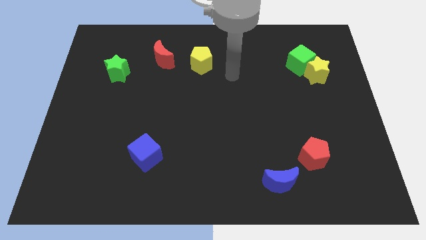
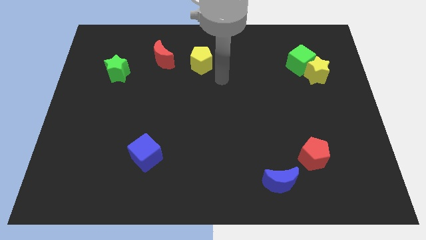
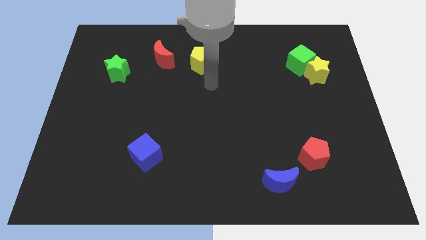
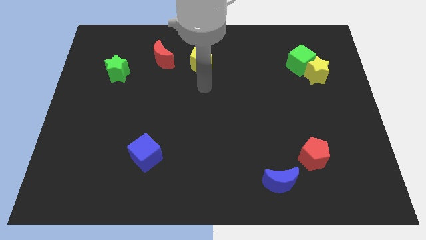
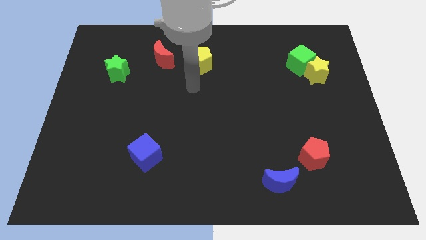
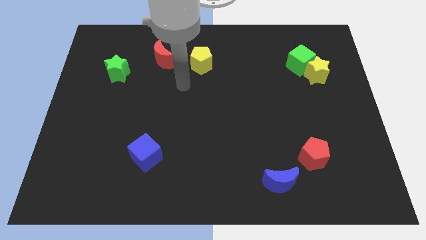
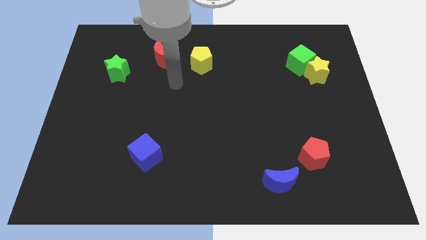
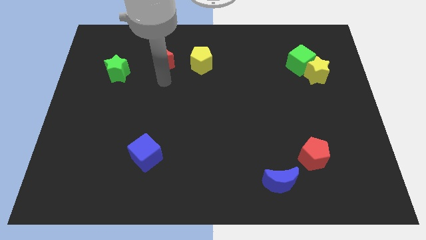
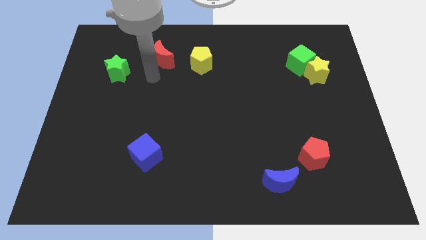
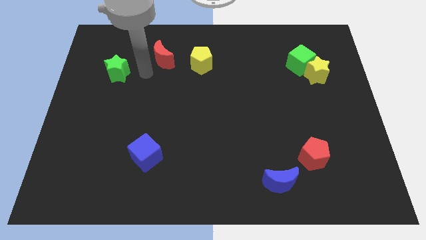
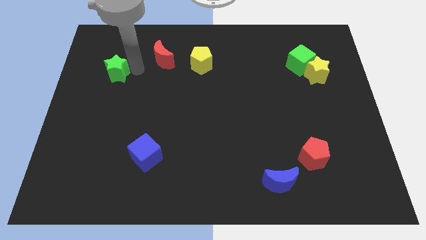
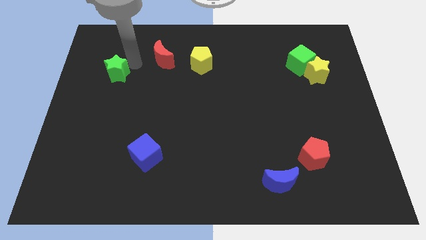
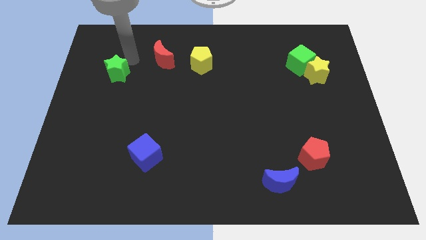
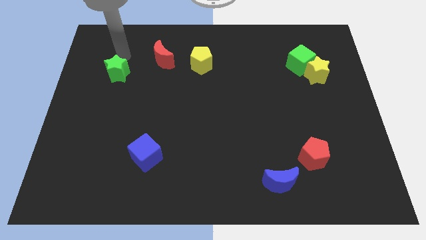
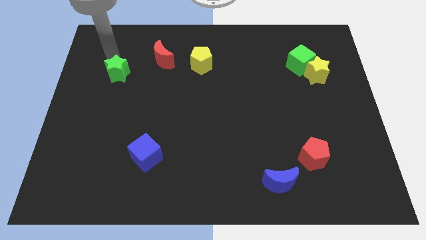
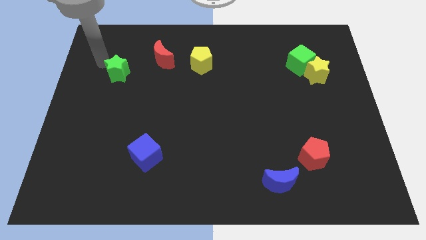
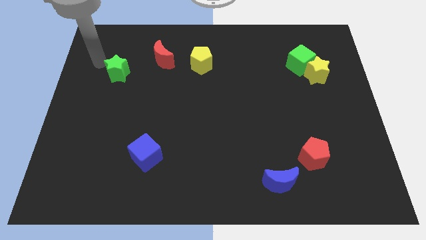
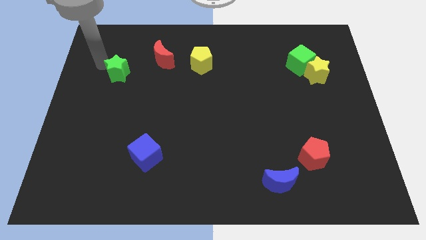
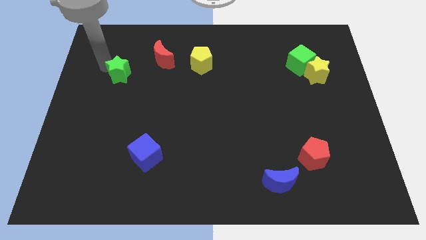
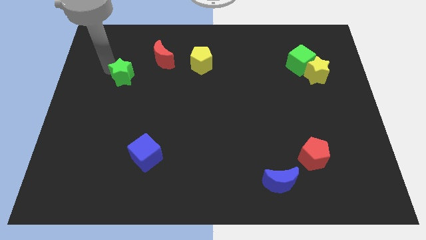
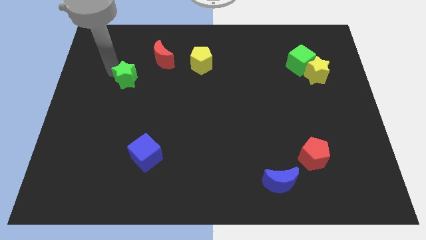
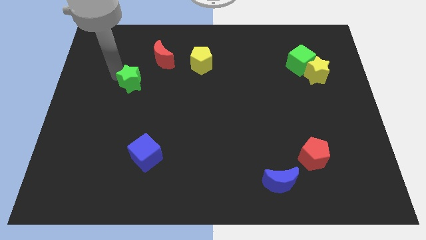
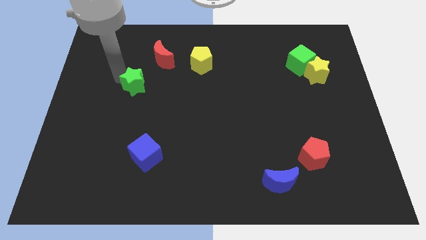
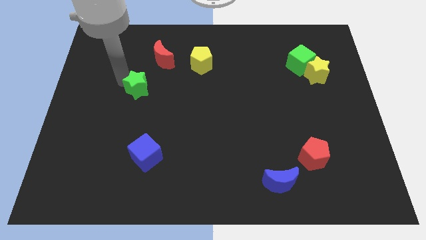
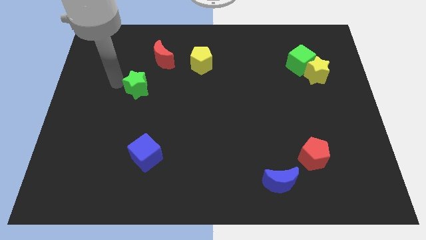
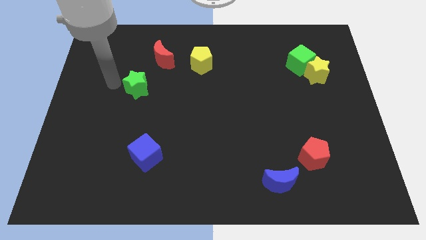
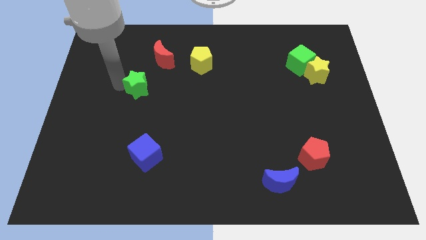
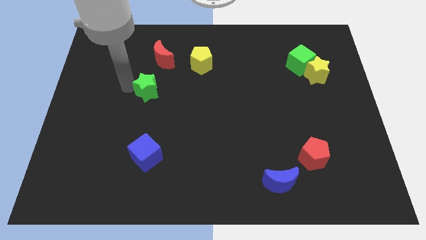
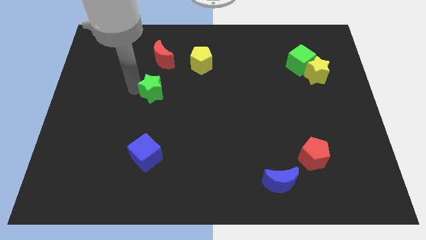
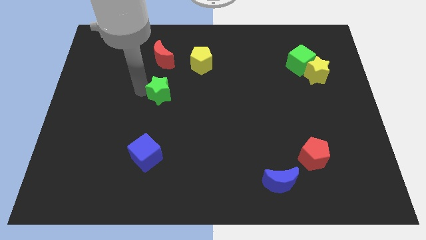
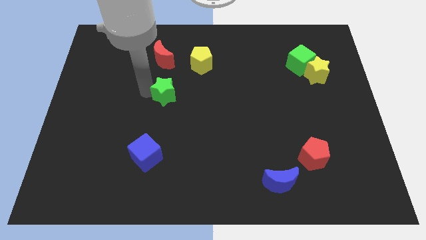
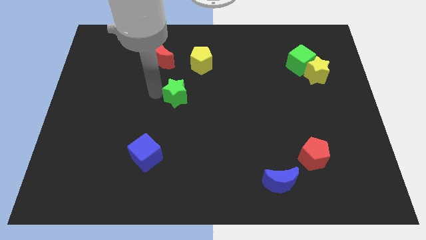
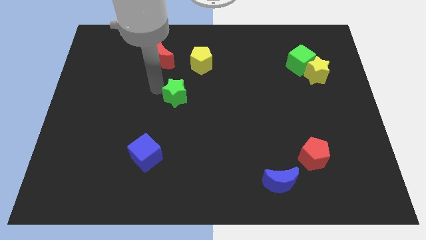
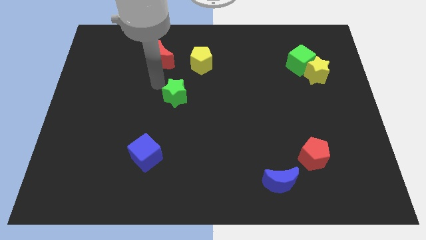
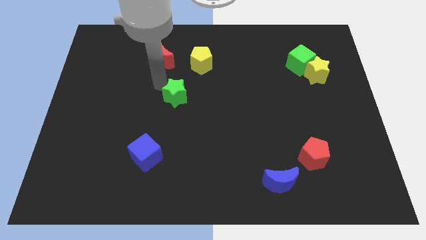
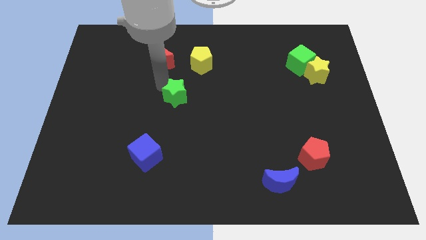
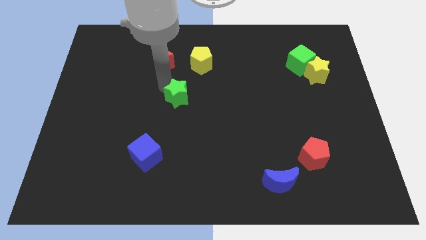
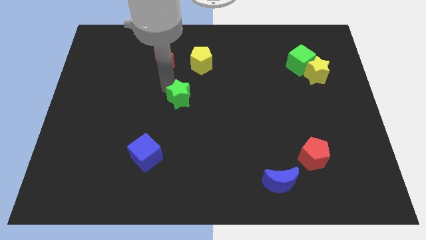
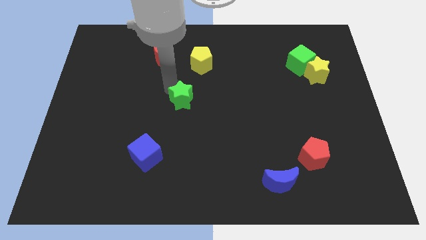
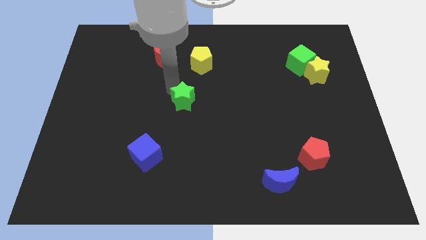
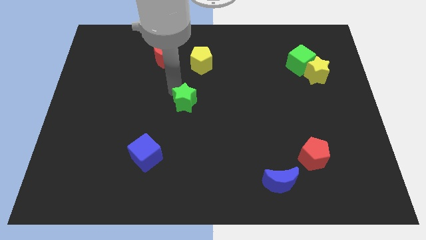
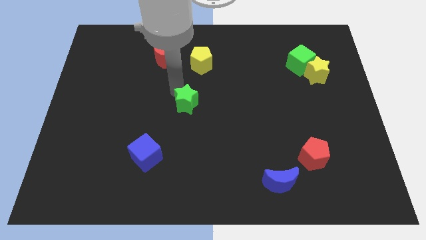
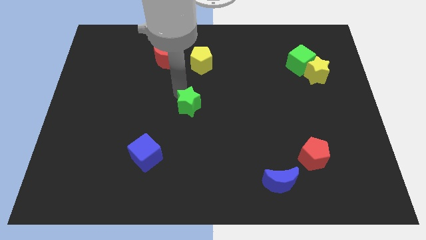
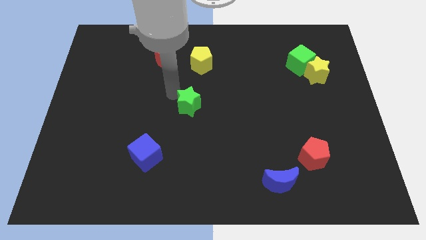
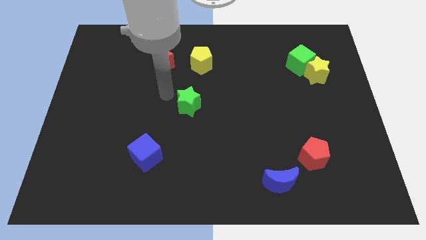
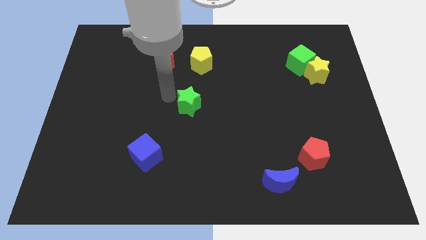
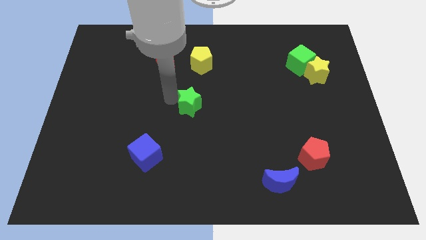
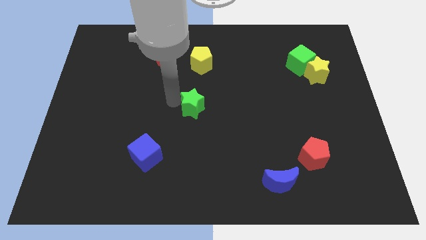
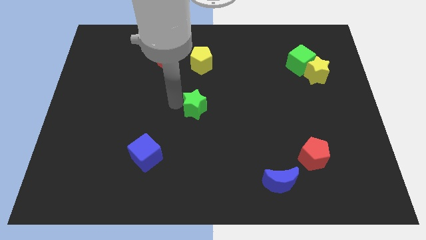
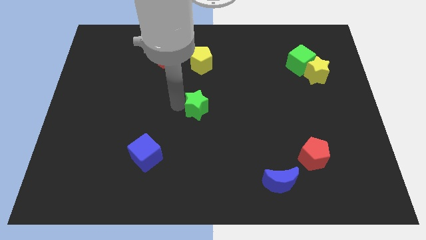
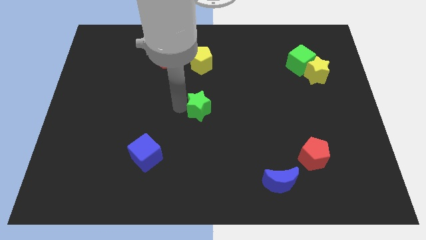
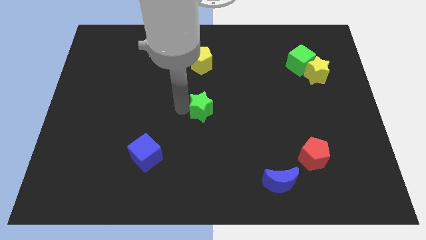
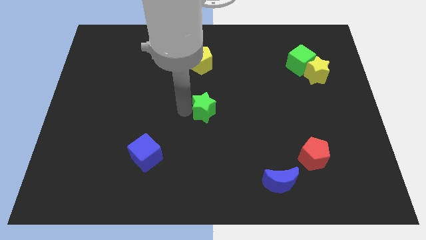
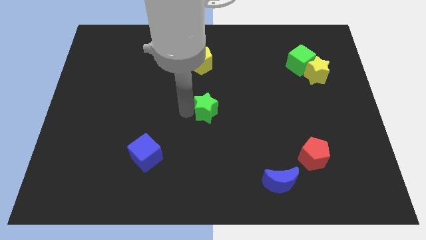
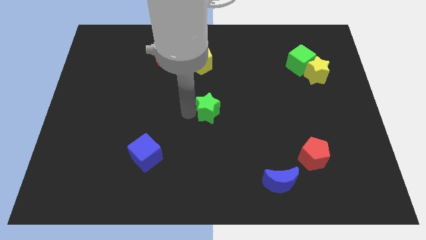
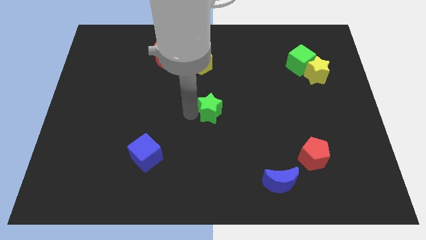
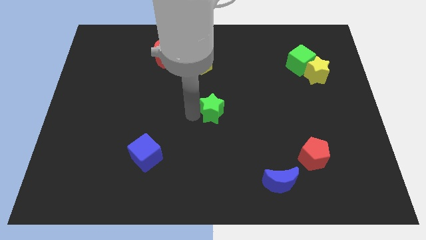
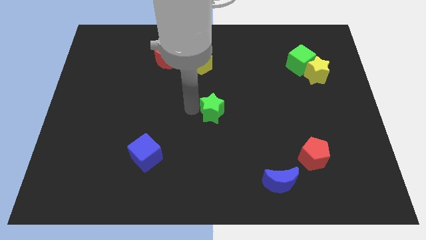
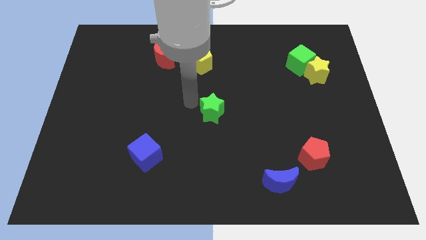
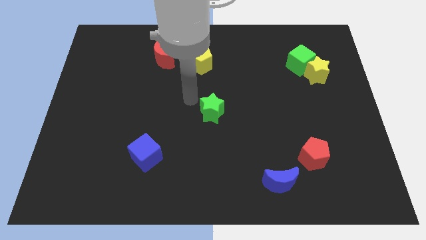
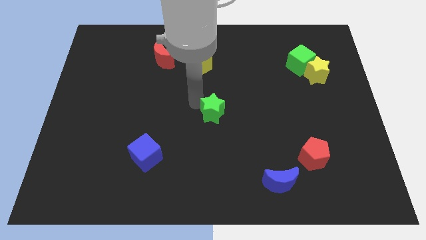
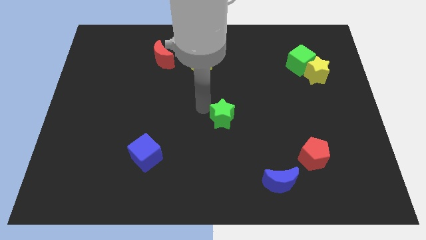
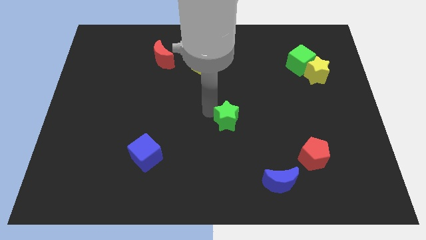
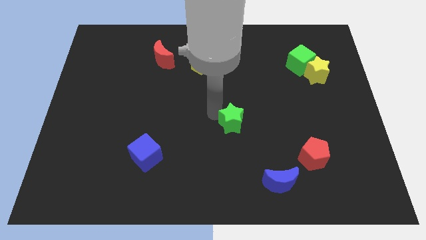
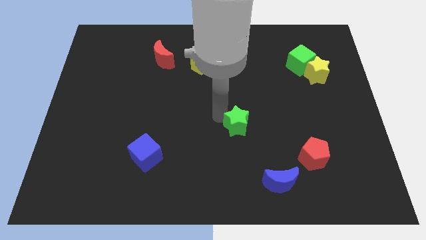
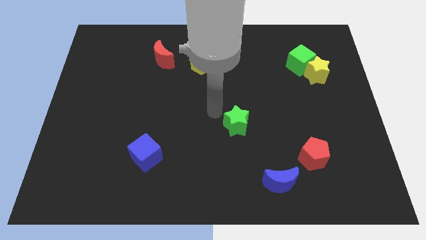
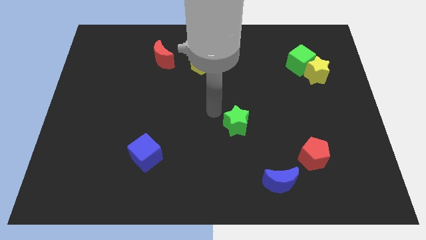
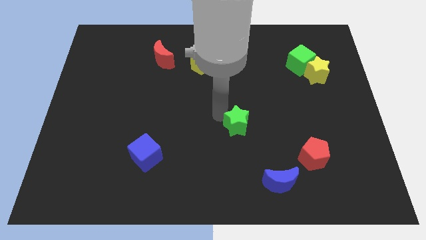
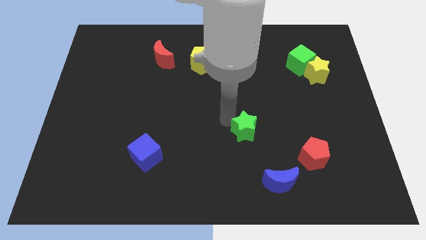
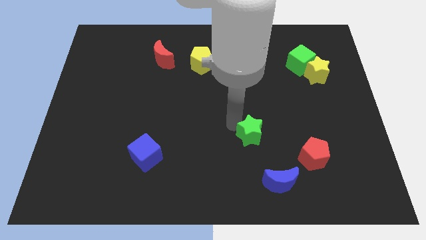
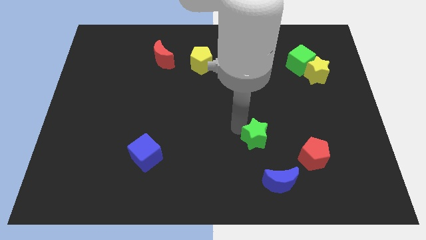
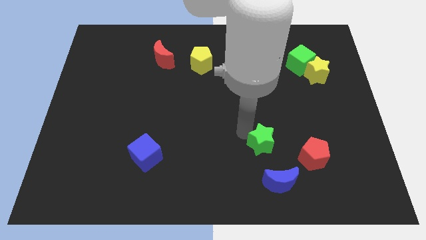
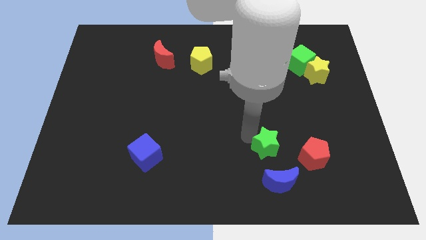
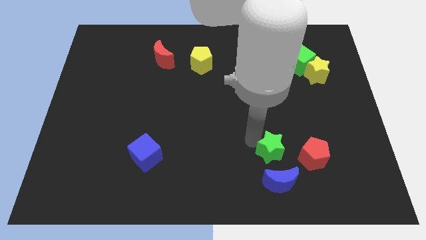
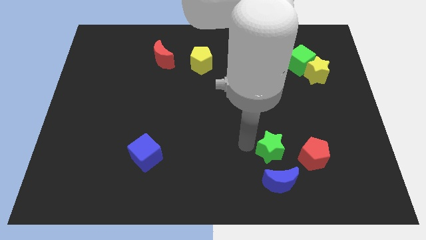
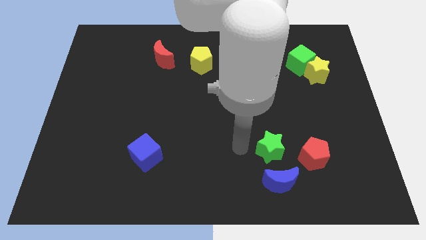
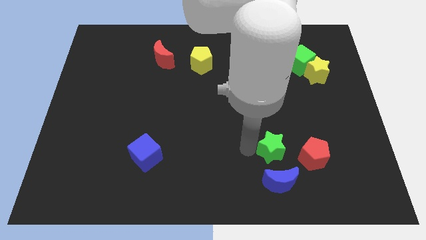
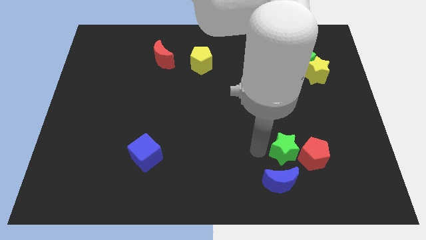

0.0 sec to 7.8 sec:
put the green star to the red pentagon

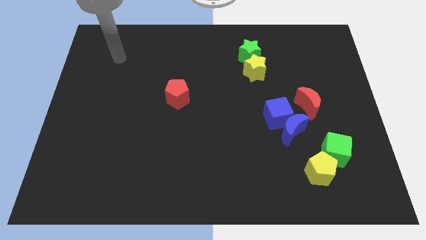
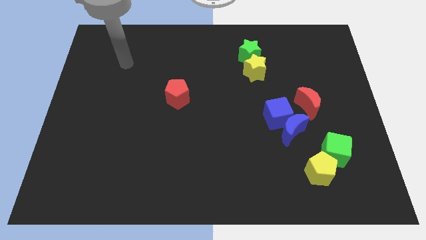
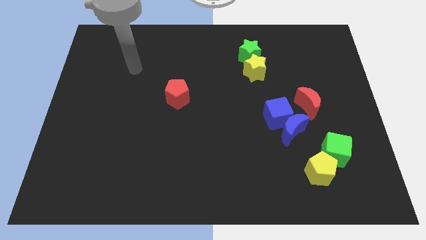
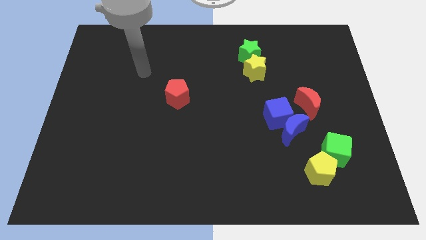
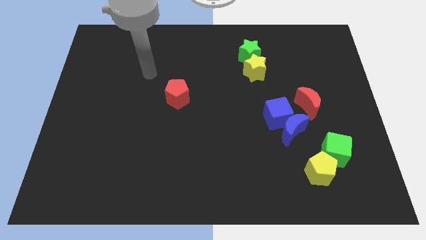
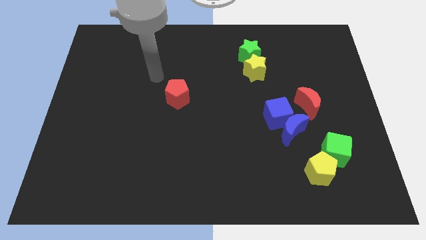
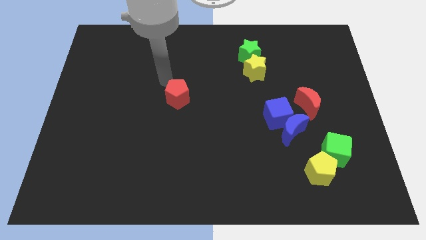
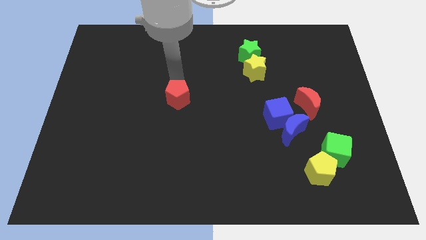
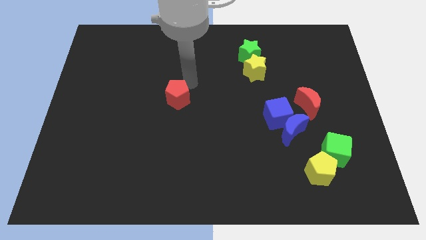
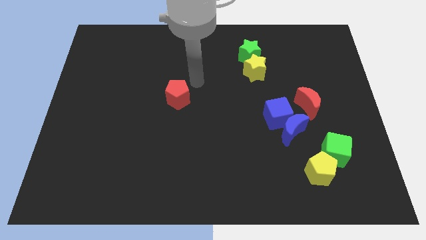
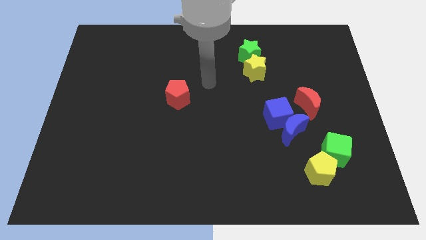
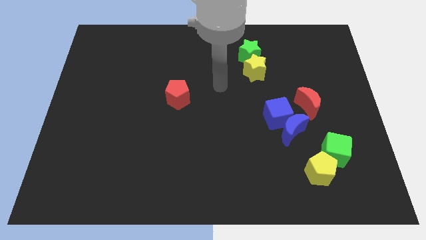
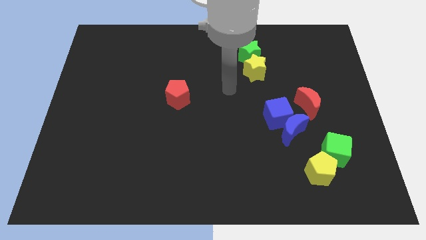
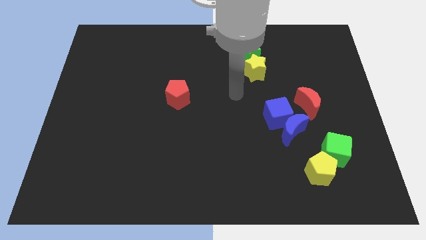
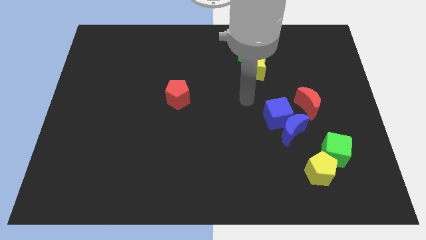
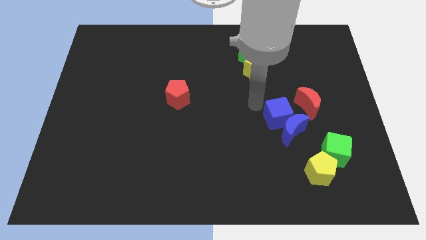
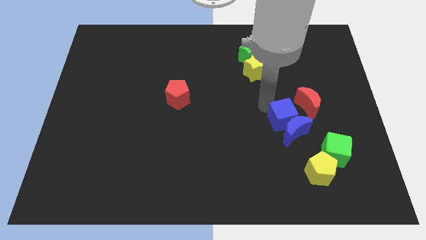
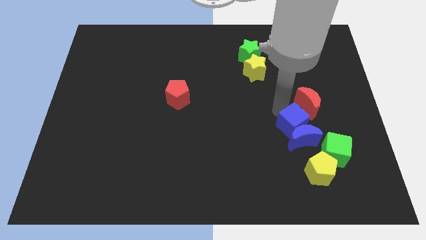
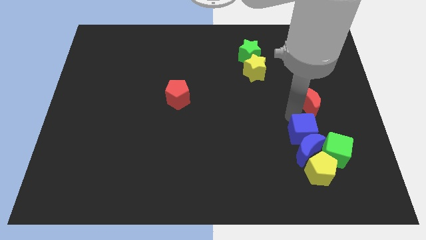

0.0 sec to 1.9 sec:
put the blue moon close to the yellow pentagon
